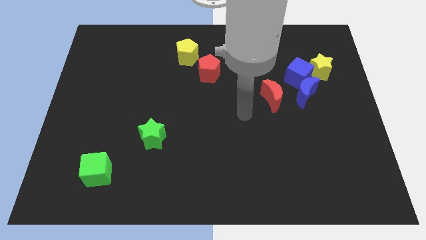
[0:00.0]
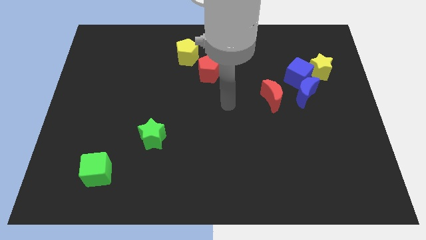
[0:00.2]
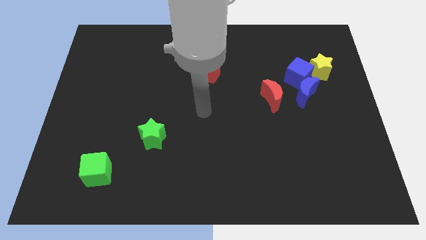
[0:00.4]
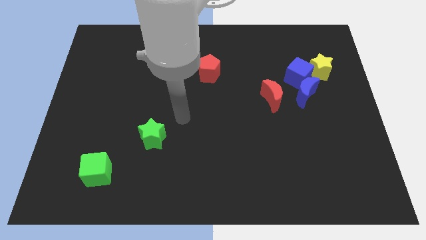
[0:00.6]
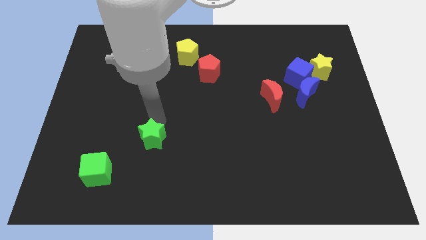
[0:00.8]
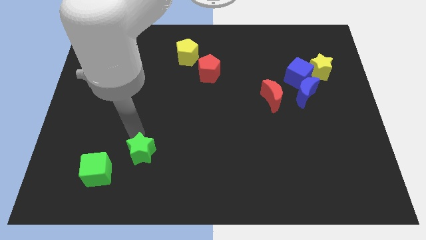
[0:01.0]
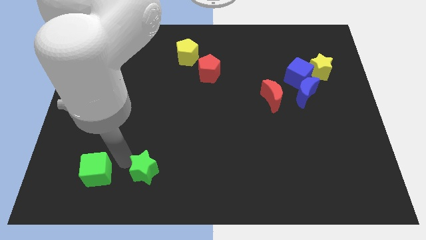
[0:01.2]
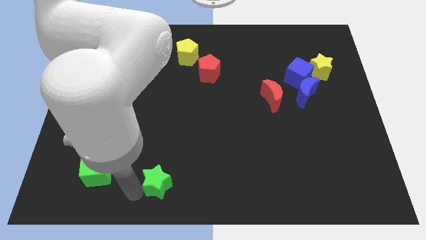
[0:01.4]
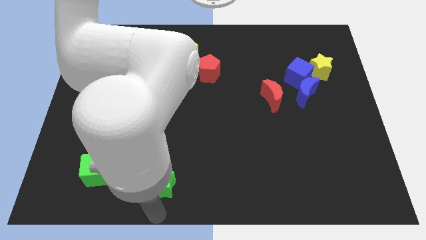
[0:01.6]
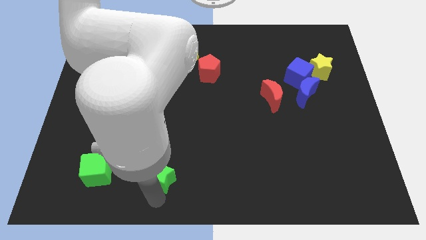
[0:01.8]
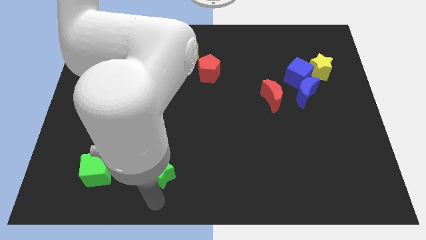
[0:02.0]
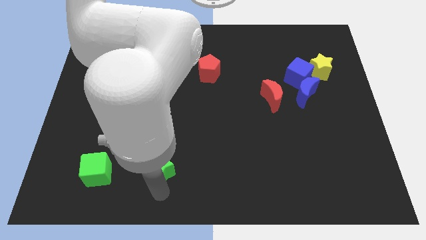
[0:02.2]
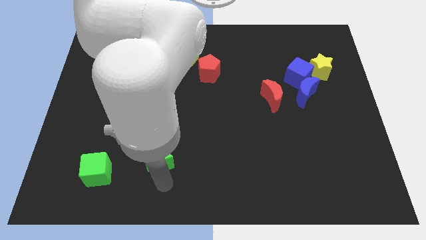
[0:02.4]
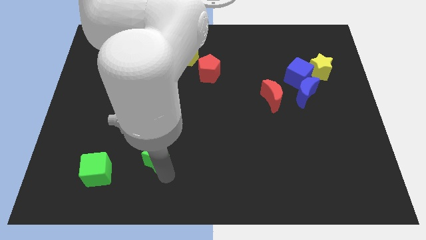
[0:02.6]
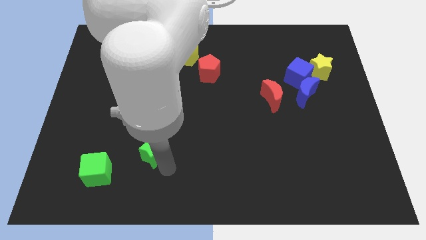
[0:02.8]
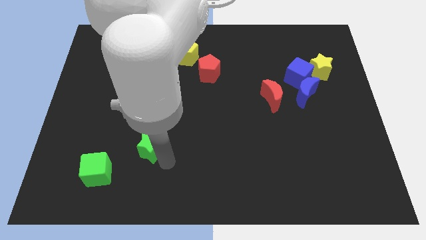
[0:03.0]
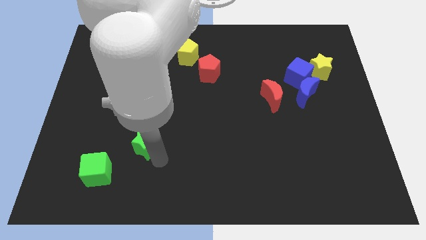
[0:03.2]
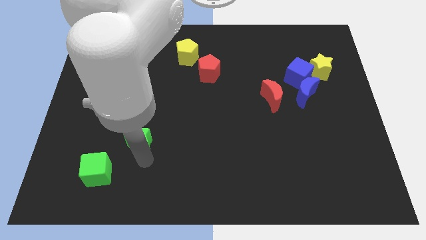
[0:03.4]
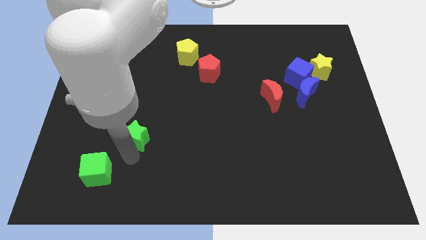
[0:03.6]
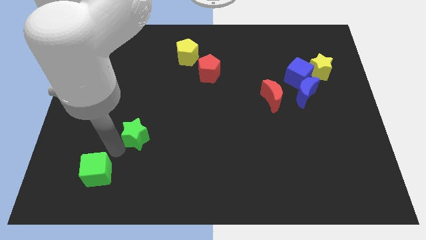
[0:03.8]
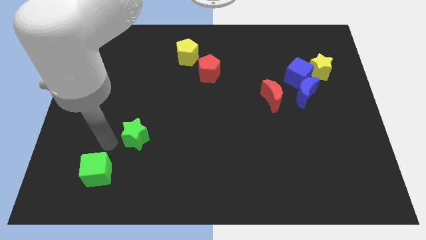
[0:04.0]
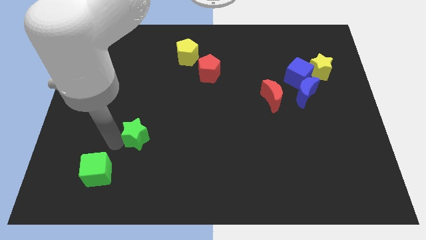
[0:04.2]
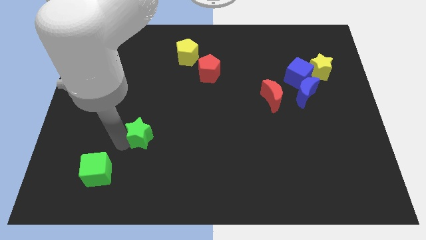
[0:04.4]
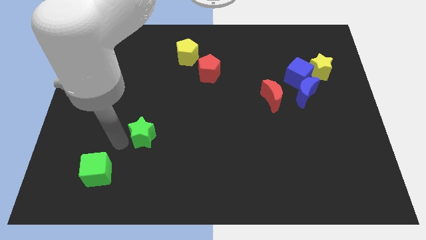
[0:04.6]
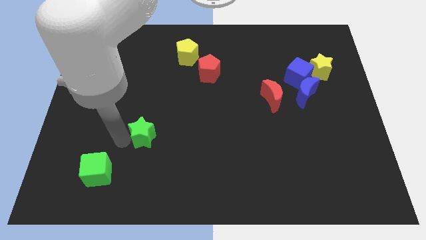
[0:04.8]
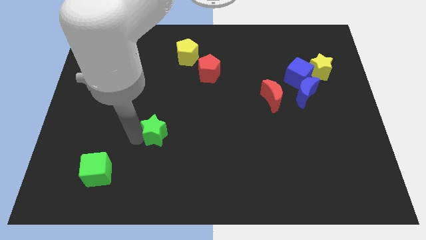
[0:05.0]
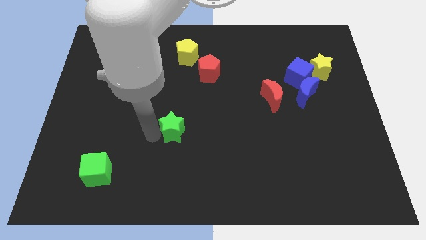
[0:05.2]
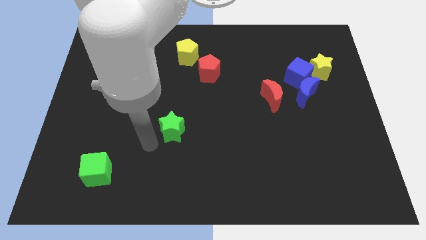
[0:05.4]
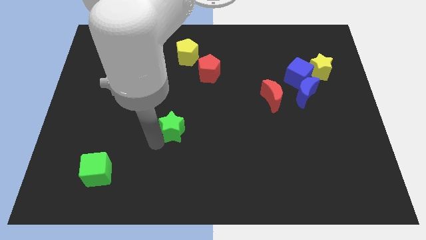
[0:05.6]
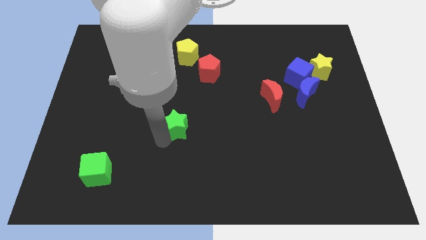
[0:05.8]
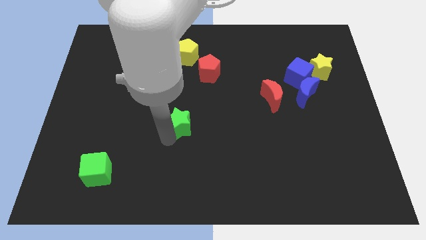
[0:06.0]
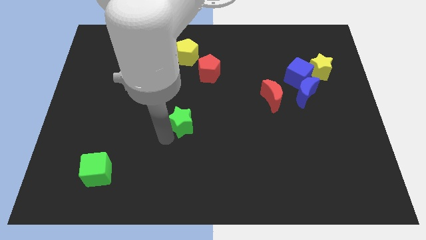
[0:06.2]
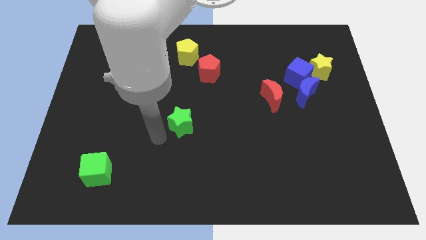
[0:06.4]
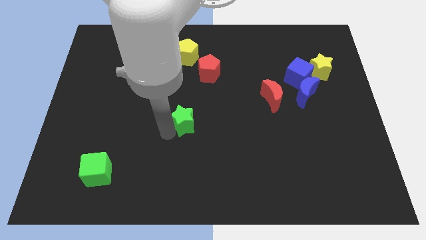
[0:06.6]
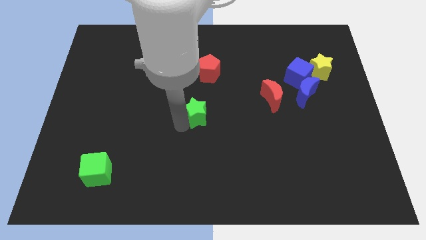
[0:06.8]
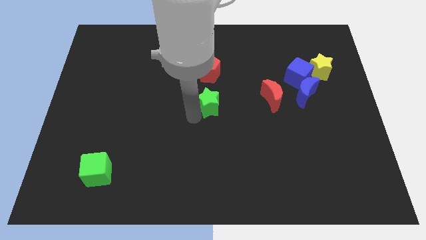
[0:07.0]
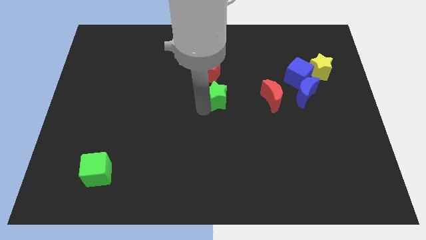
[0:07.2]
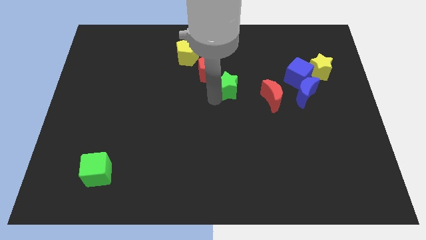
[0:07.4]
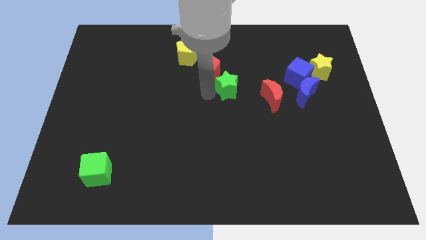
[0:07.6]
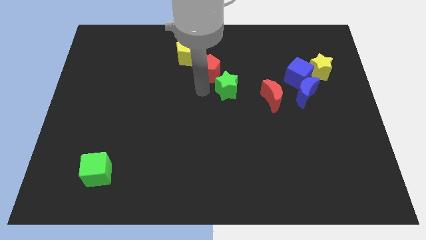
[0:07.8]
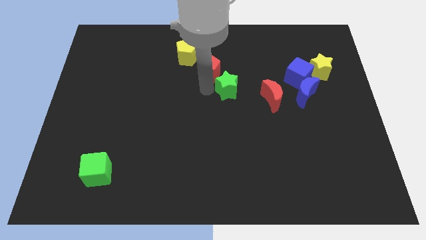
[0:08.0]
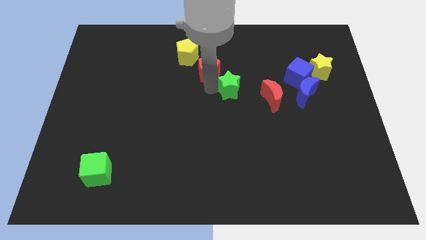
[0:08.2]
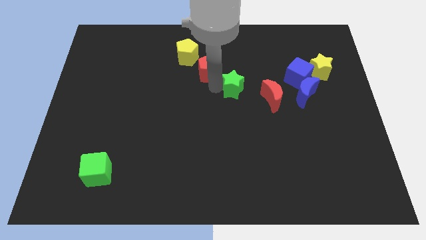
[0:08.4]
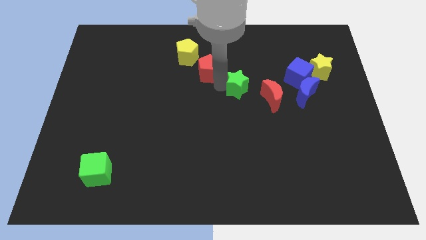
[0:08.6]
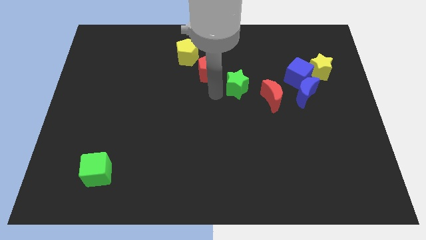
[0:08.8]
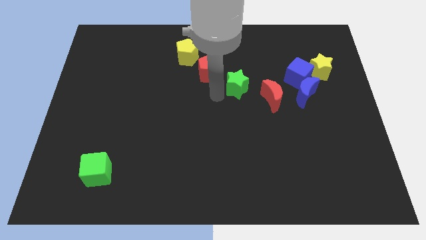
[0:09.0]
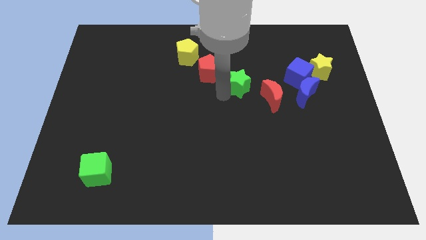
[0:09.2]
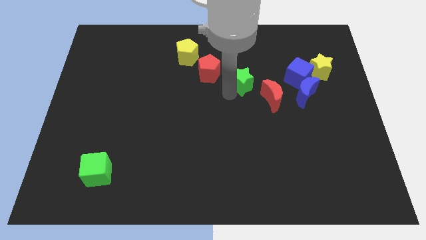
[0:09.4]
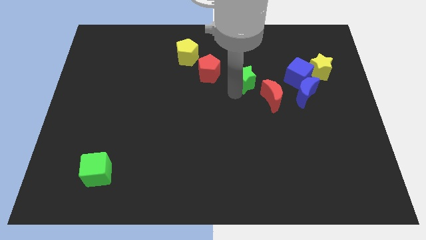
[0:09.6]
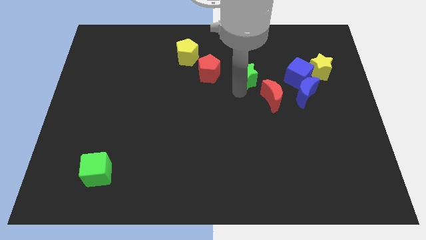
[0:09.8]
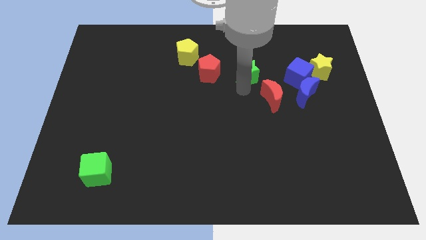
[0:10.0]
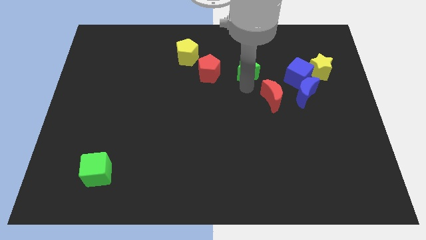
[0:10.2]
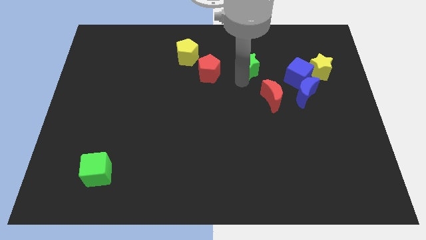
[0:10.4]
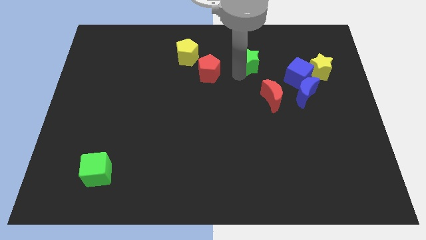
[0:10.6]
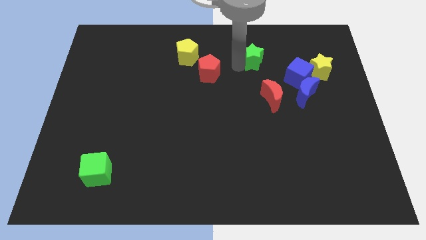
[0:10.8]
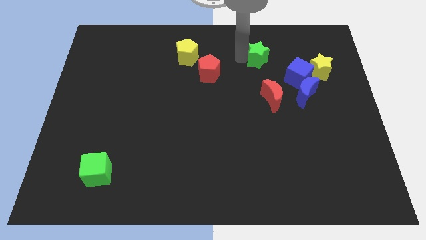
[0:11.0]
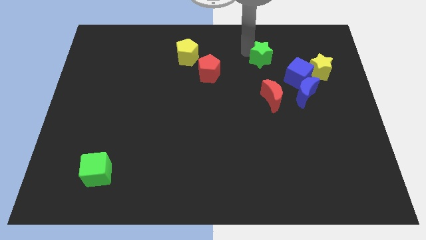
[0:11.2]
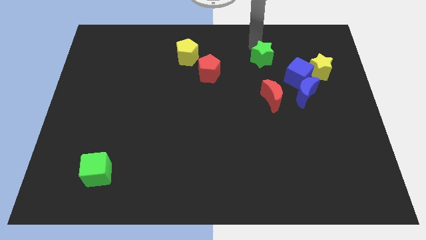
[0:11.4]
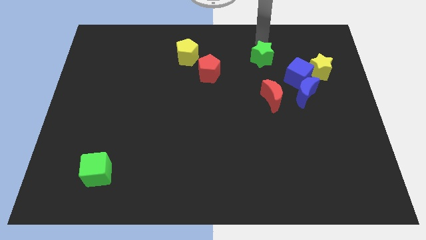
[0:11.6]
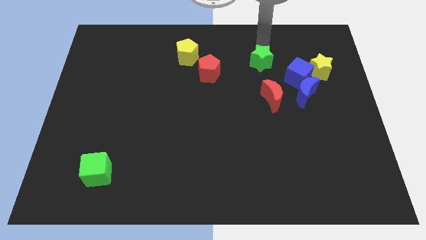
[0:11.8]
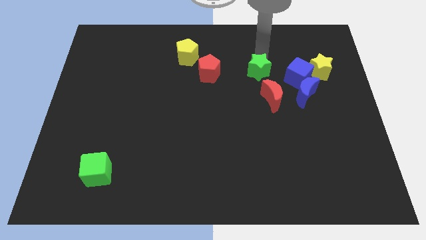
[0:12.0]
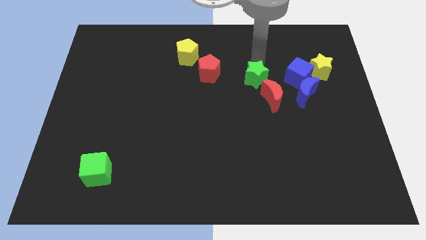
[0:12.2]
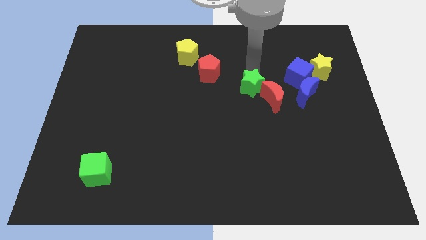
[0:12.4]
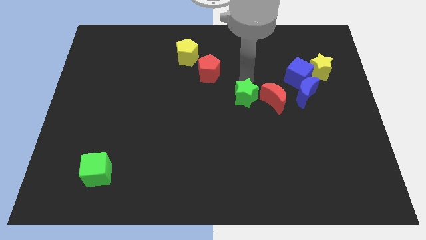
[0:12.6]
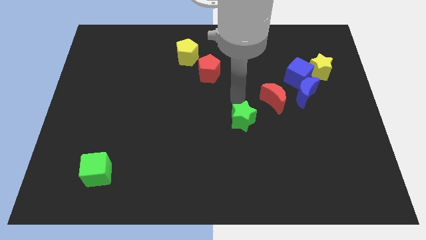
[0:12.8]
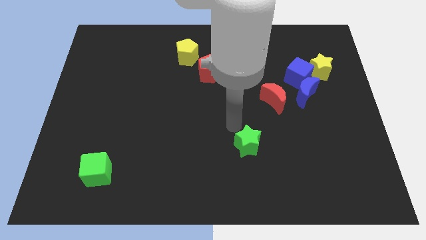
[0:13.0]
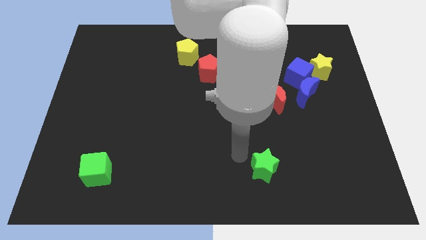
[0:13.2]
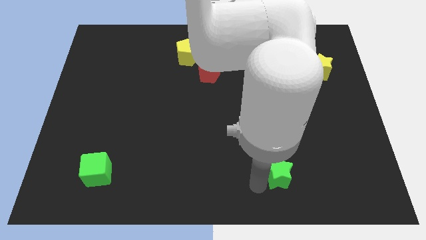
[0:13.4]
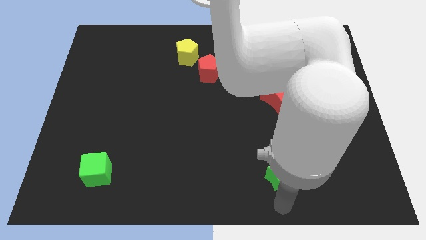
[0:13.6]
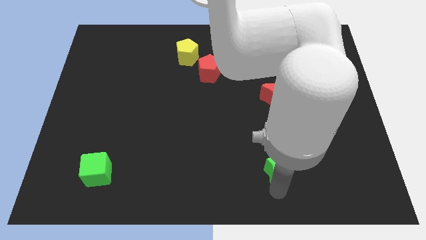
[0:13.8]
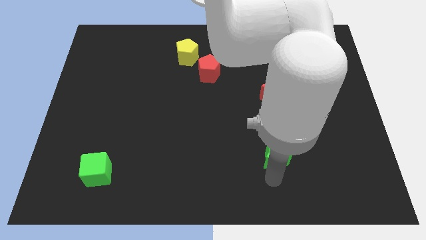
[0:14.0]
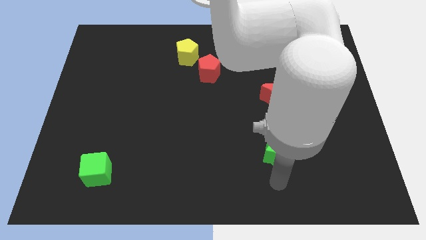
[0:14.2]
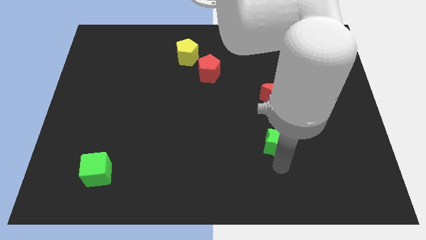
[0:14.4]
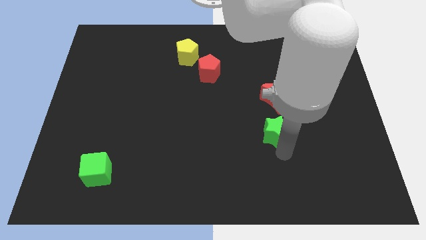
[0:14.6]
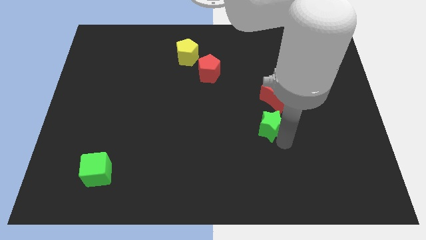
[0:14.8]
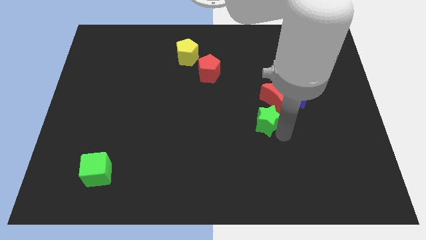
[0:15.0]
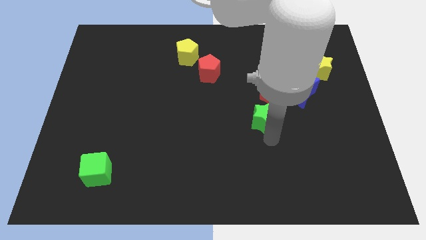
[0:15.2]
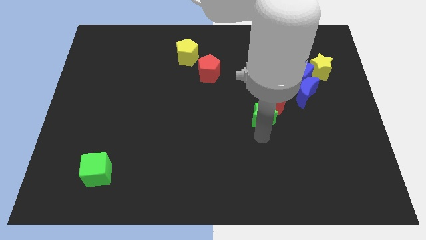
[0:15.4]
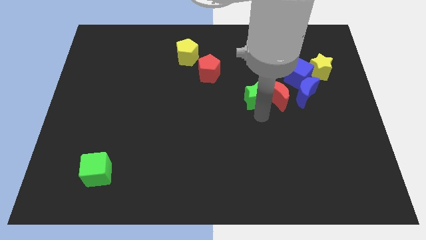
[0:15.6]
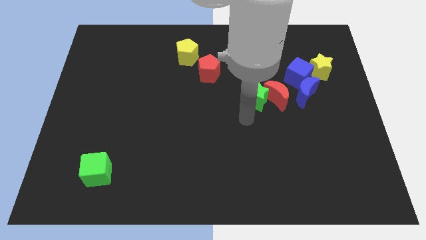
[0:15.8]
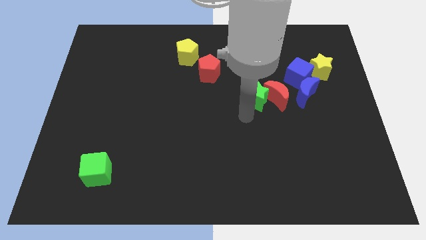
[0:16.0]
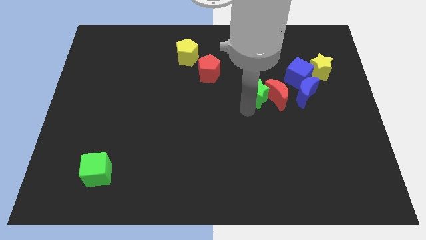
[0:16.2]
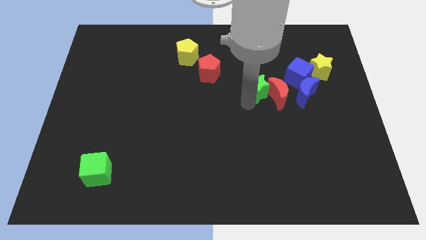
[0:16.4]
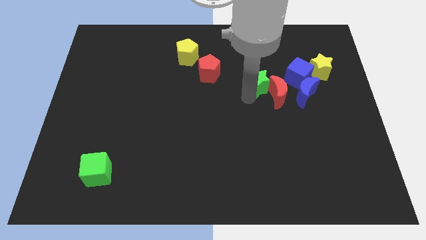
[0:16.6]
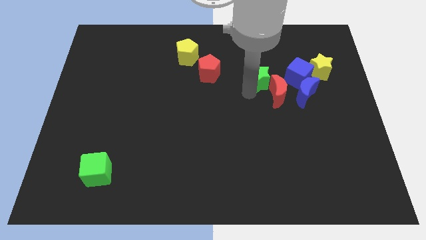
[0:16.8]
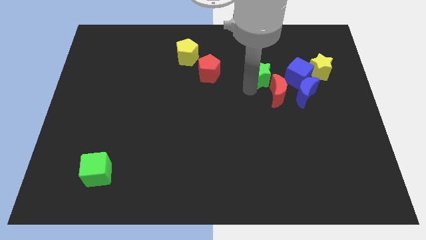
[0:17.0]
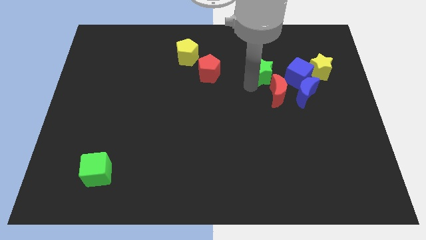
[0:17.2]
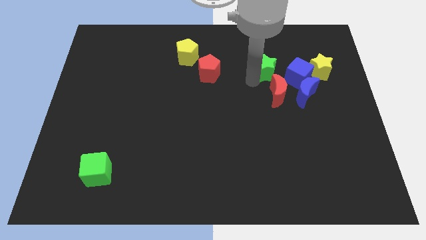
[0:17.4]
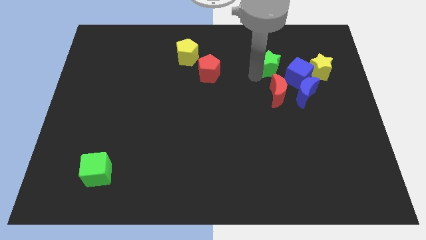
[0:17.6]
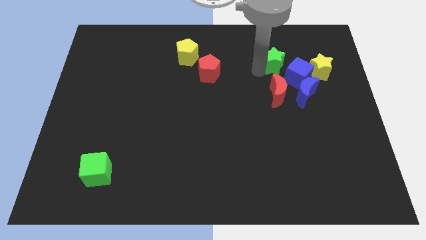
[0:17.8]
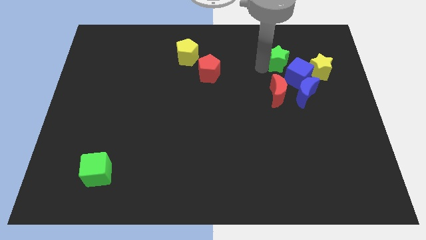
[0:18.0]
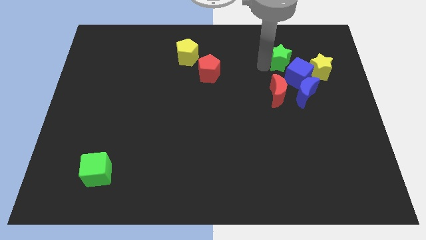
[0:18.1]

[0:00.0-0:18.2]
move the green star diagonally up and to the left of the yellow star
